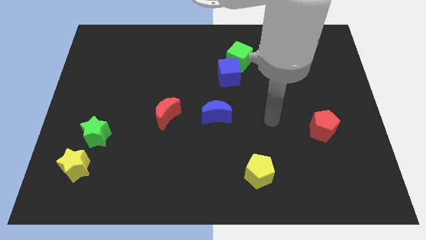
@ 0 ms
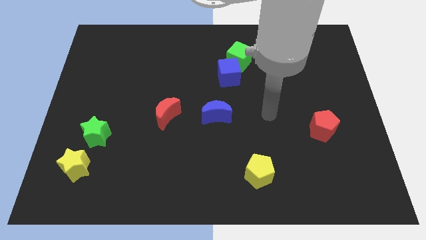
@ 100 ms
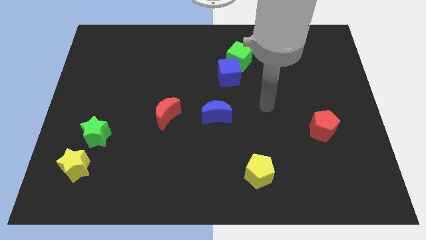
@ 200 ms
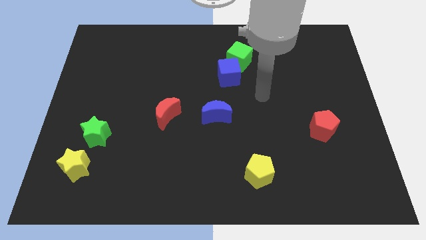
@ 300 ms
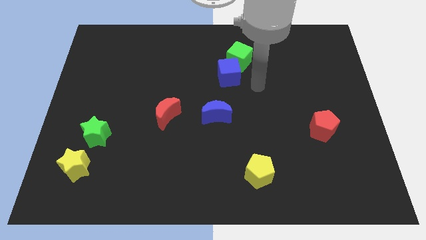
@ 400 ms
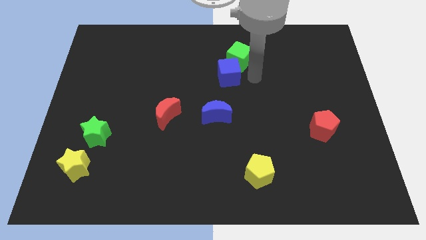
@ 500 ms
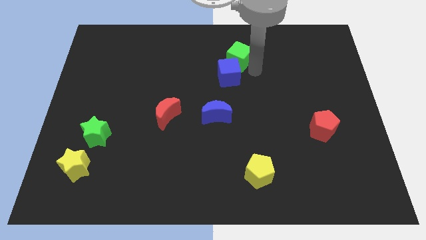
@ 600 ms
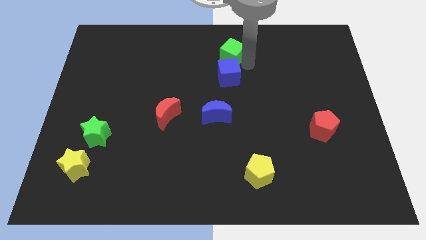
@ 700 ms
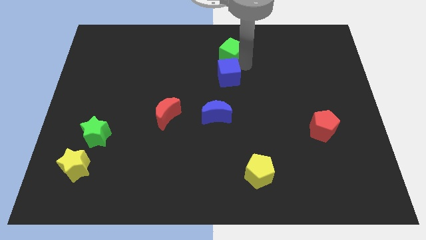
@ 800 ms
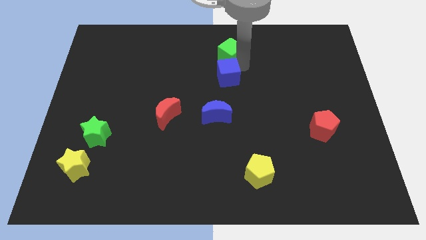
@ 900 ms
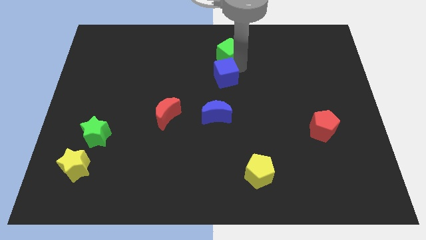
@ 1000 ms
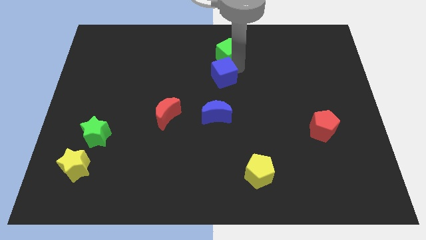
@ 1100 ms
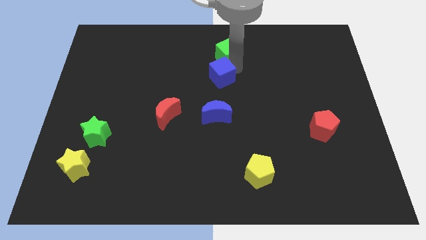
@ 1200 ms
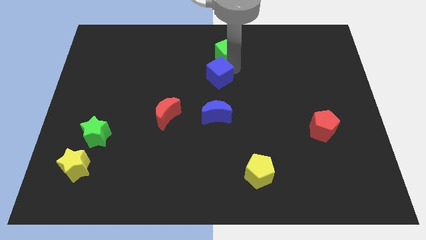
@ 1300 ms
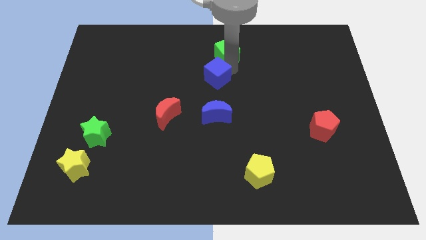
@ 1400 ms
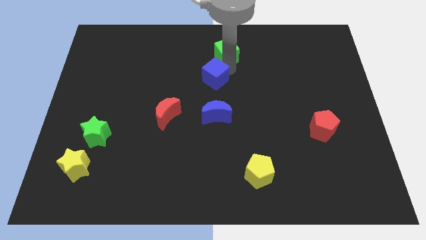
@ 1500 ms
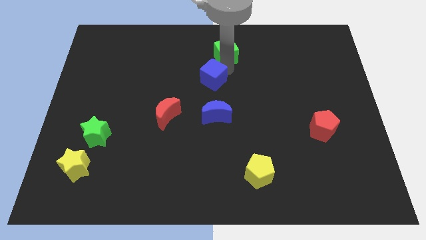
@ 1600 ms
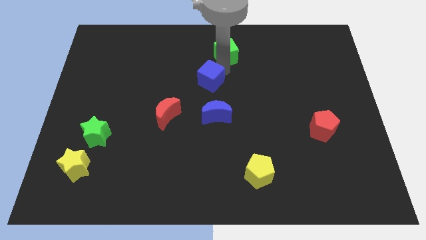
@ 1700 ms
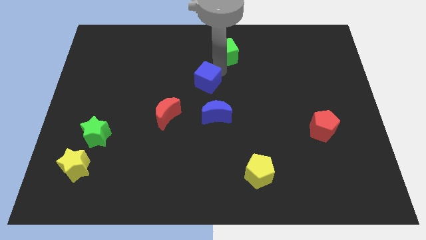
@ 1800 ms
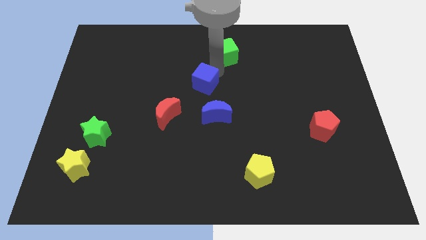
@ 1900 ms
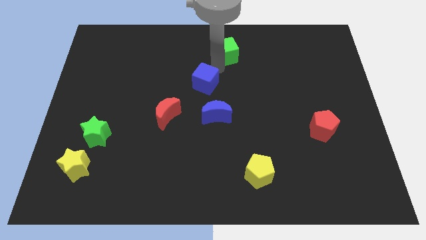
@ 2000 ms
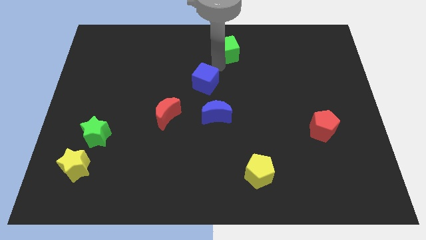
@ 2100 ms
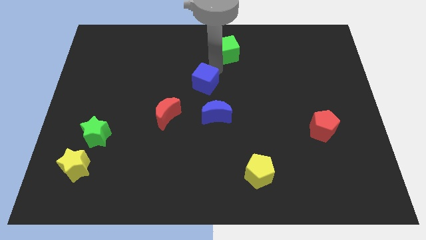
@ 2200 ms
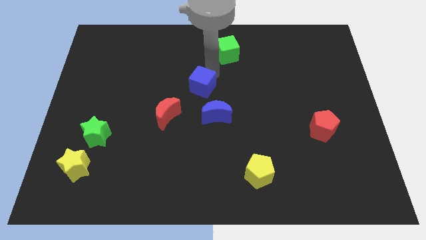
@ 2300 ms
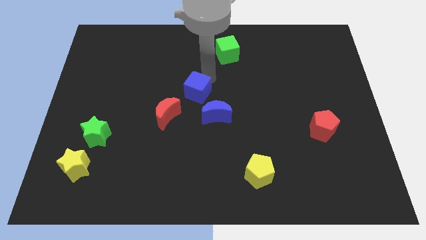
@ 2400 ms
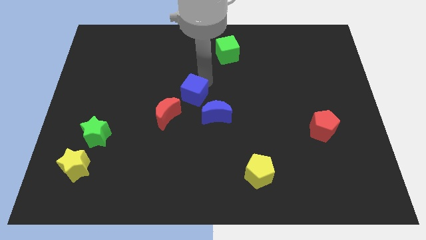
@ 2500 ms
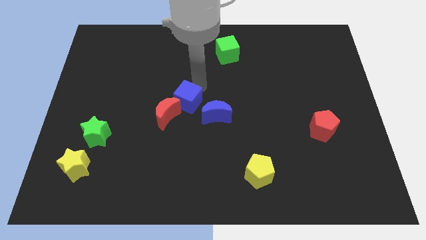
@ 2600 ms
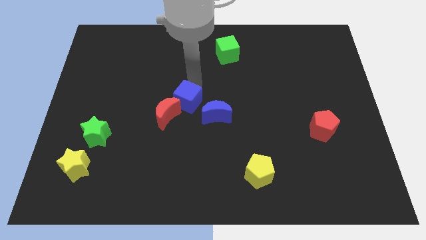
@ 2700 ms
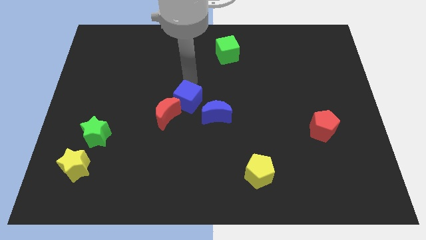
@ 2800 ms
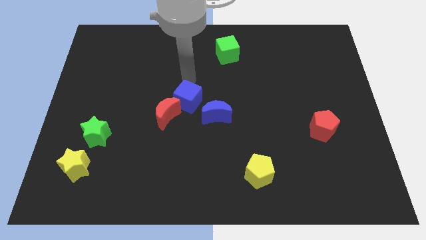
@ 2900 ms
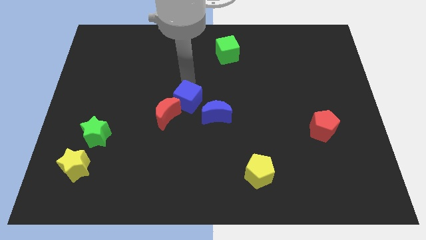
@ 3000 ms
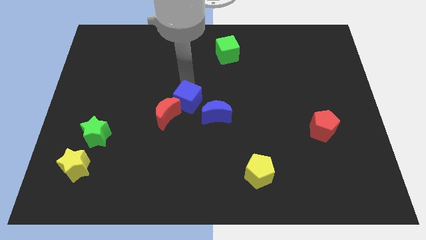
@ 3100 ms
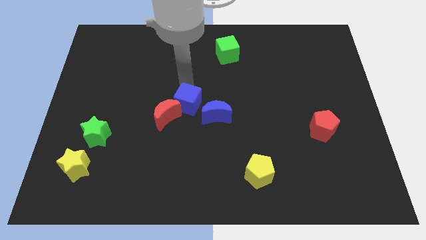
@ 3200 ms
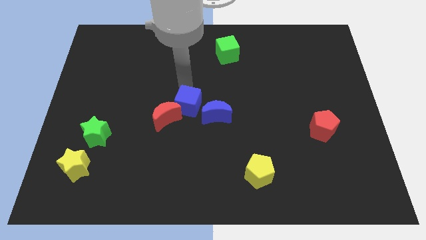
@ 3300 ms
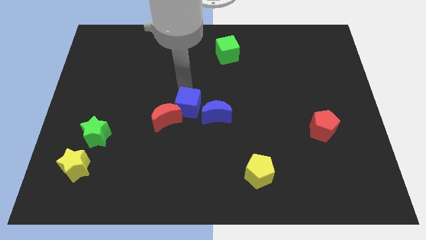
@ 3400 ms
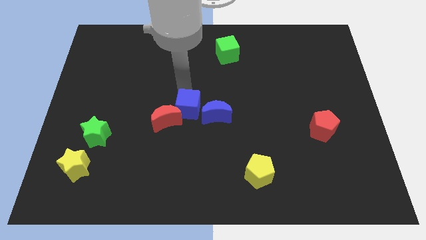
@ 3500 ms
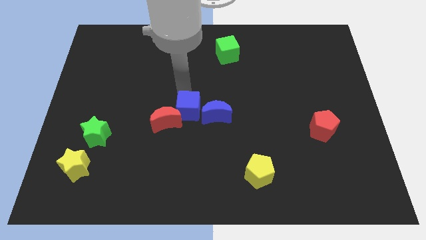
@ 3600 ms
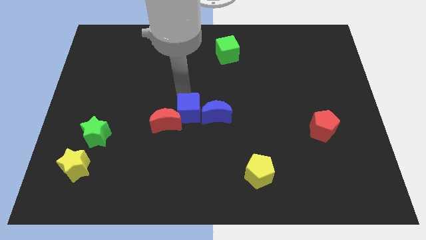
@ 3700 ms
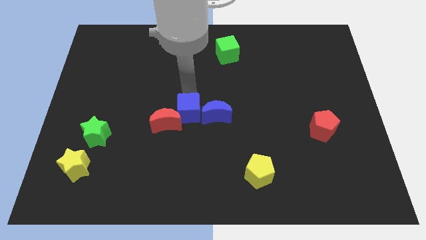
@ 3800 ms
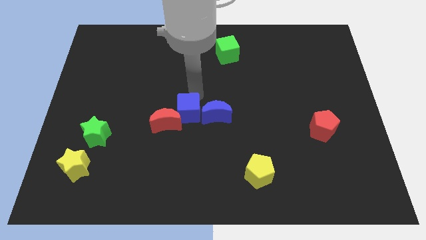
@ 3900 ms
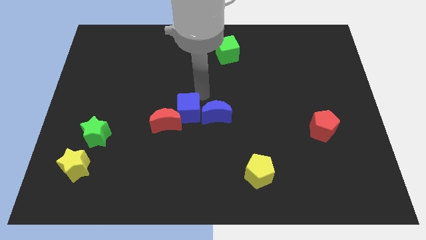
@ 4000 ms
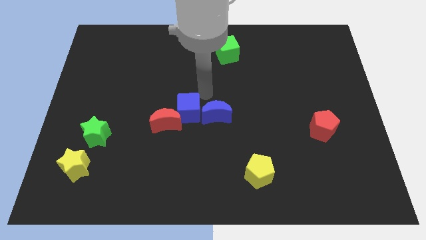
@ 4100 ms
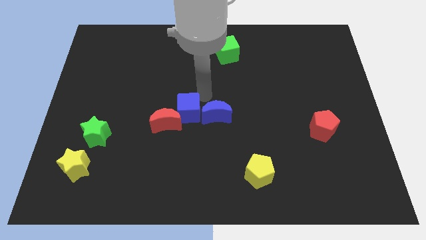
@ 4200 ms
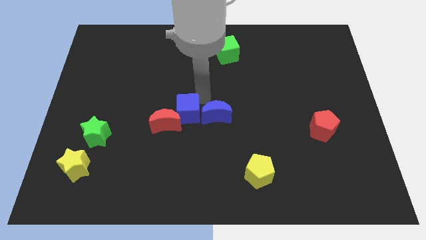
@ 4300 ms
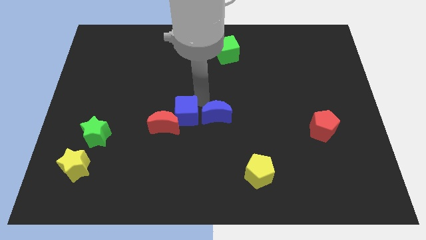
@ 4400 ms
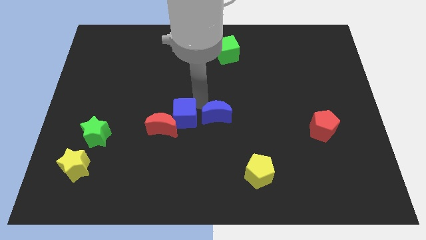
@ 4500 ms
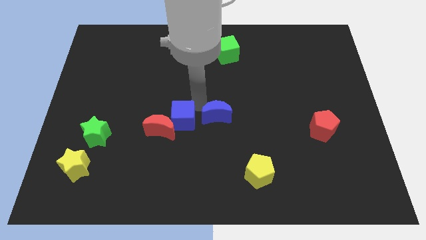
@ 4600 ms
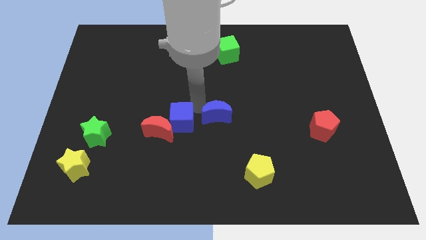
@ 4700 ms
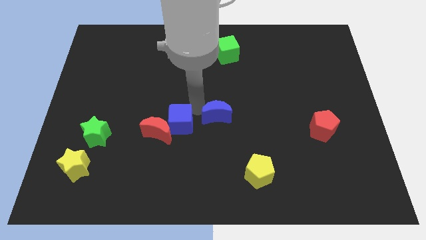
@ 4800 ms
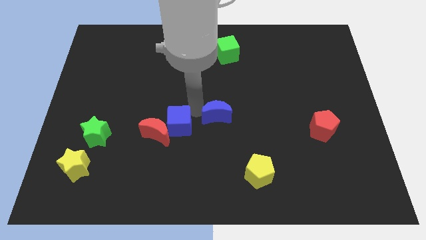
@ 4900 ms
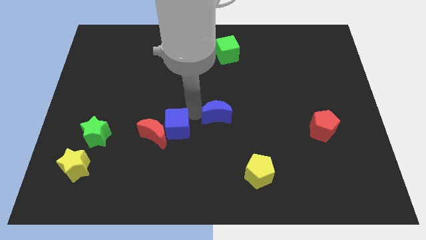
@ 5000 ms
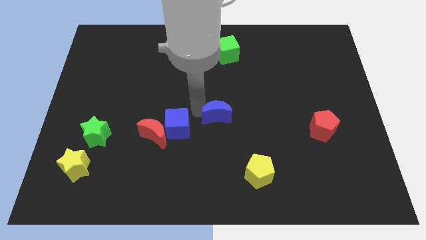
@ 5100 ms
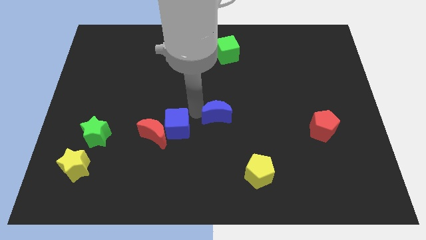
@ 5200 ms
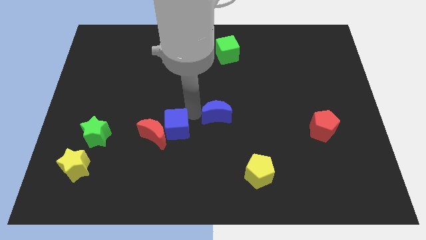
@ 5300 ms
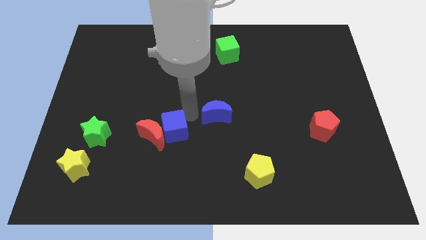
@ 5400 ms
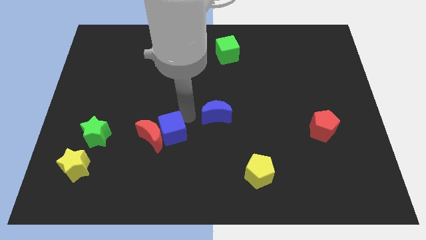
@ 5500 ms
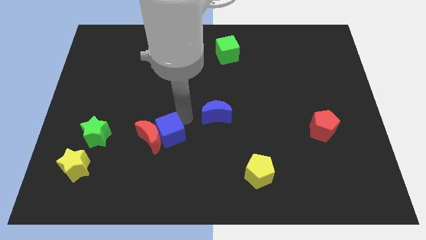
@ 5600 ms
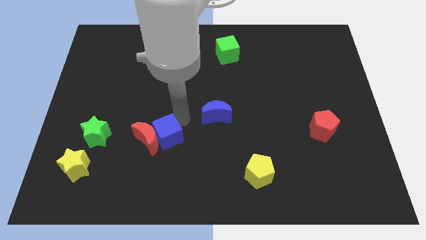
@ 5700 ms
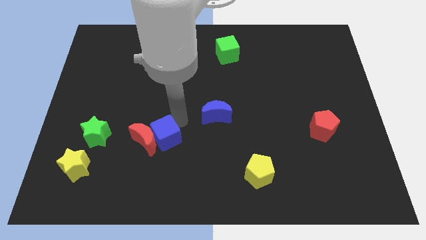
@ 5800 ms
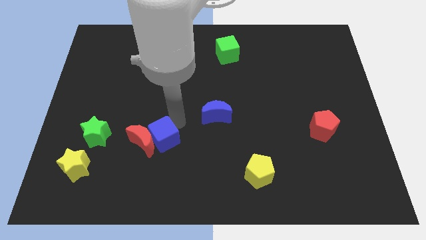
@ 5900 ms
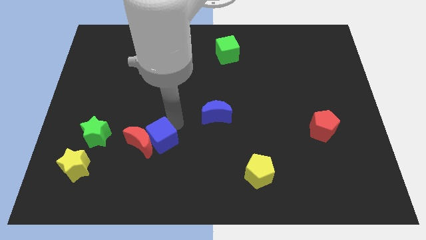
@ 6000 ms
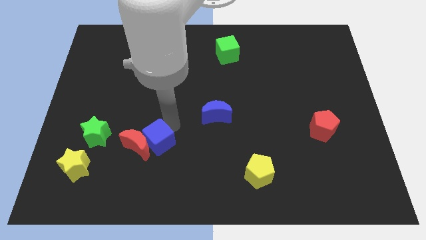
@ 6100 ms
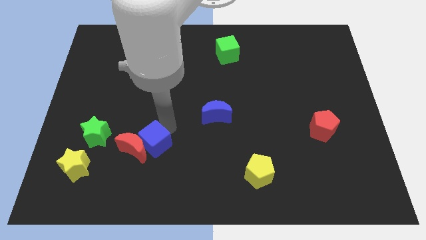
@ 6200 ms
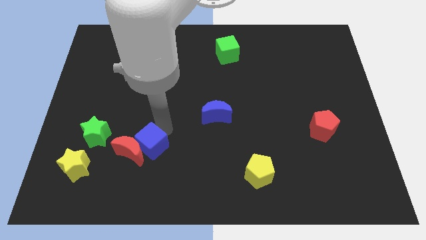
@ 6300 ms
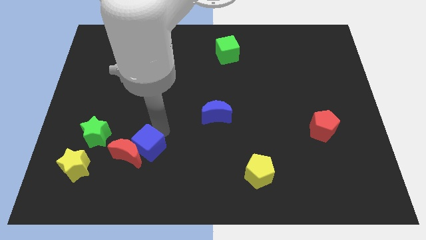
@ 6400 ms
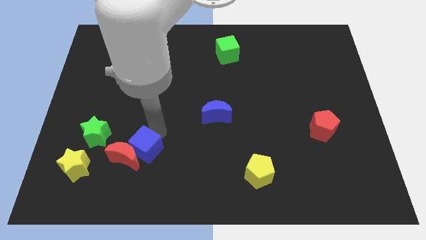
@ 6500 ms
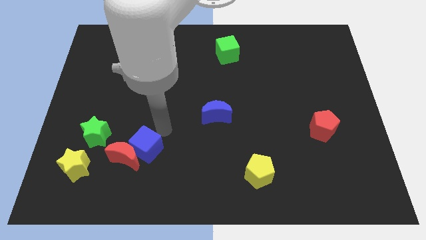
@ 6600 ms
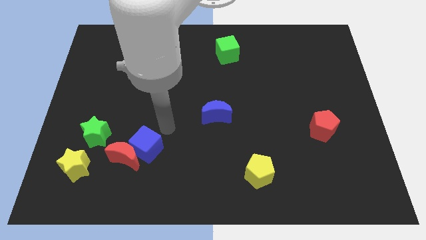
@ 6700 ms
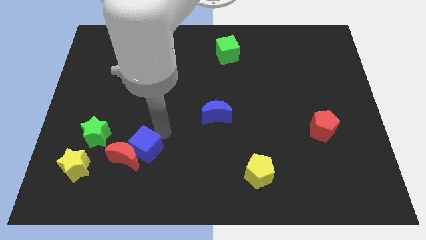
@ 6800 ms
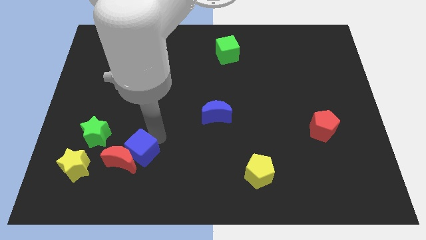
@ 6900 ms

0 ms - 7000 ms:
slide the blue cube just right of the yellow star
